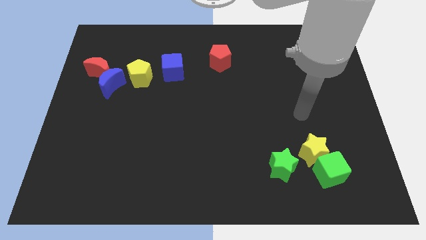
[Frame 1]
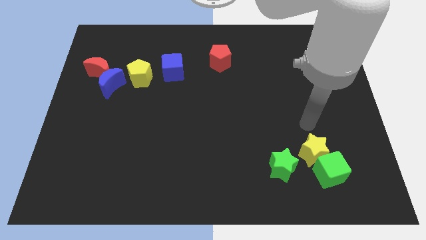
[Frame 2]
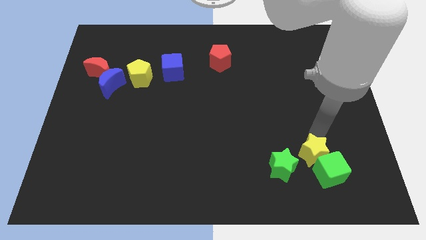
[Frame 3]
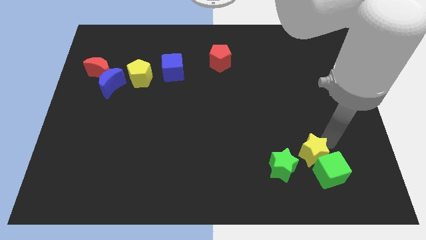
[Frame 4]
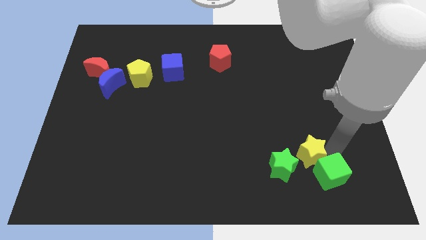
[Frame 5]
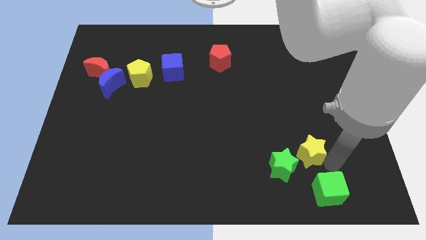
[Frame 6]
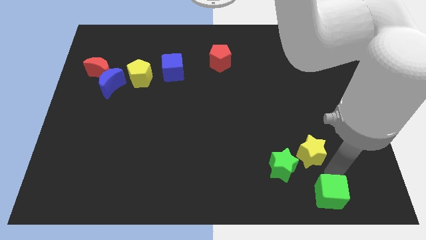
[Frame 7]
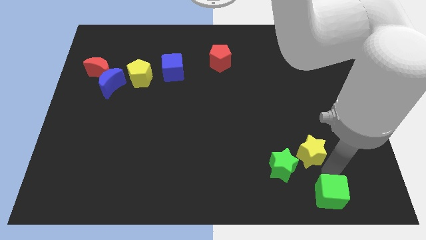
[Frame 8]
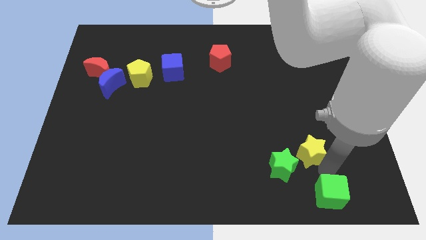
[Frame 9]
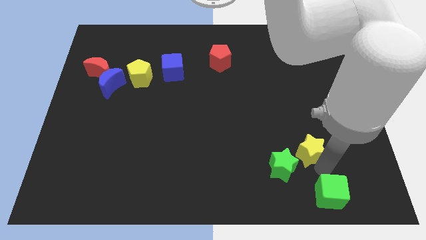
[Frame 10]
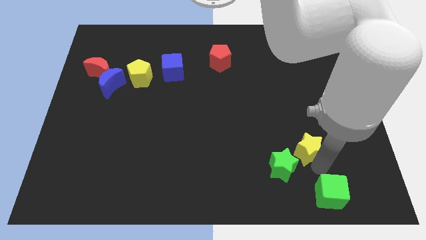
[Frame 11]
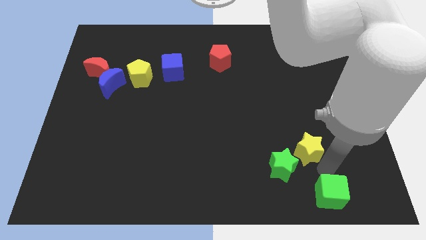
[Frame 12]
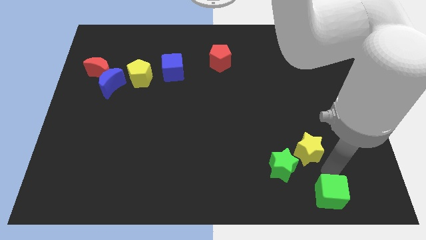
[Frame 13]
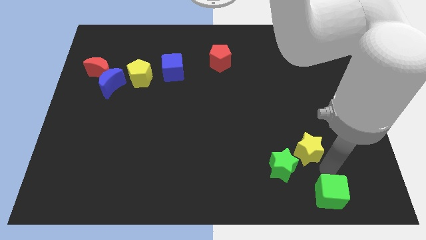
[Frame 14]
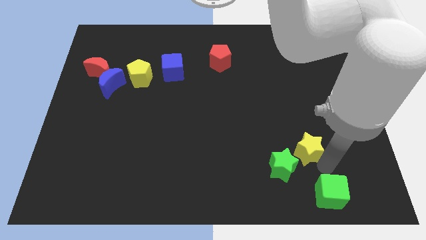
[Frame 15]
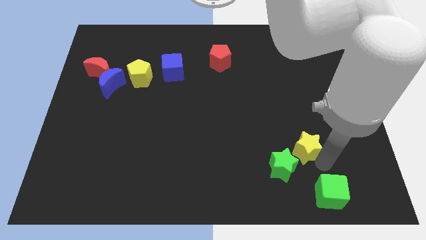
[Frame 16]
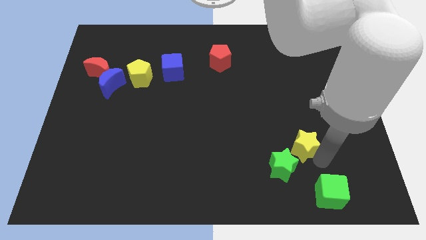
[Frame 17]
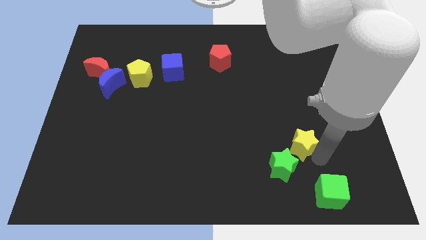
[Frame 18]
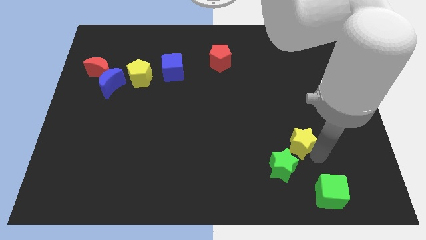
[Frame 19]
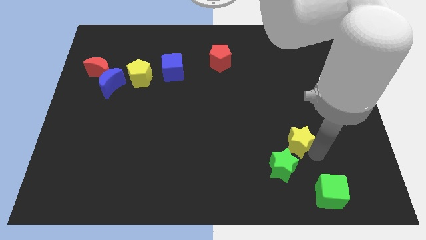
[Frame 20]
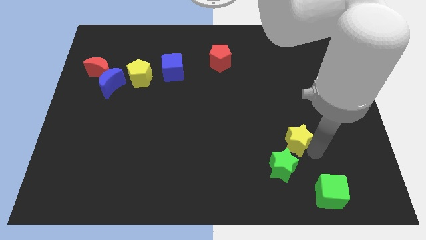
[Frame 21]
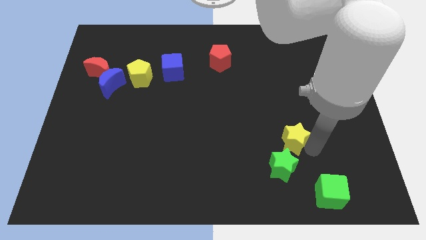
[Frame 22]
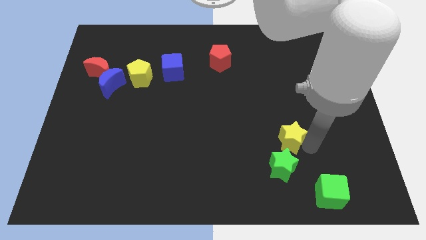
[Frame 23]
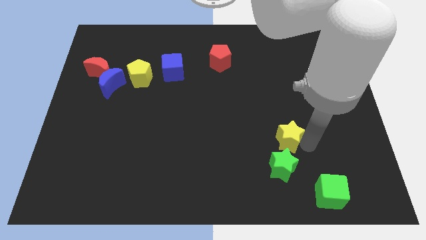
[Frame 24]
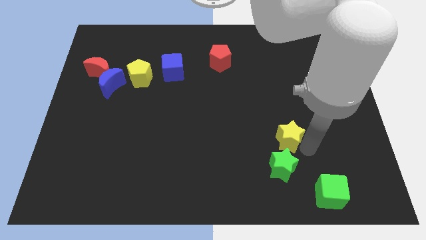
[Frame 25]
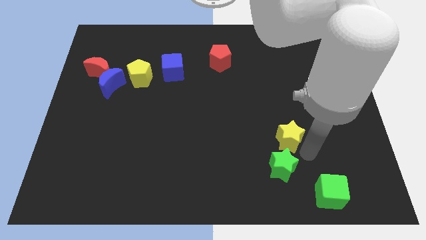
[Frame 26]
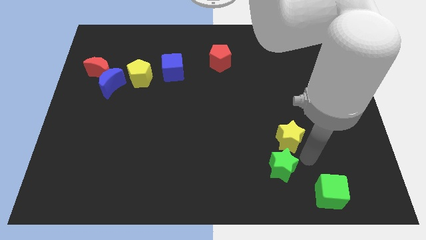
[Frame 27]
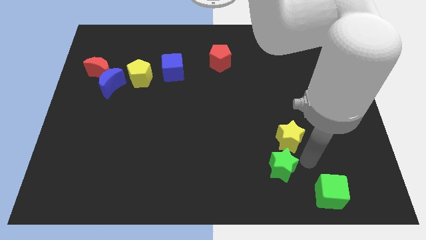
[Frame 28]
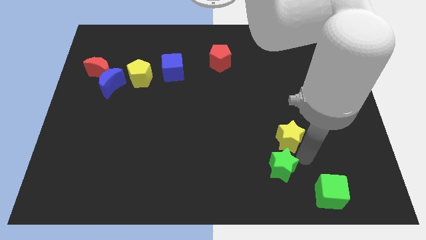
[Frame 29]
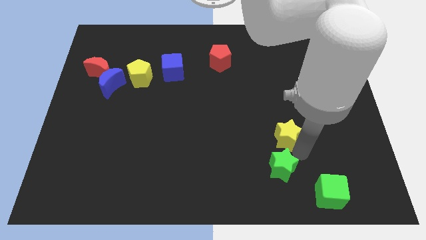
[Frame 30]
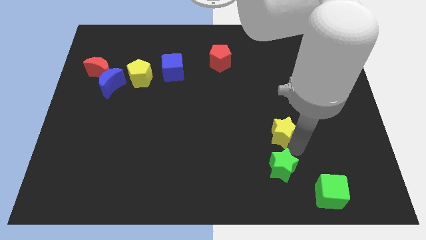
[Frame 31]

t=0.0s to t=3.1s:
push the yellow star upwards and to the left a little

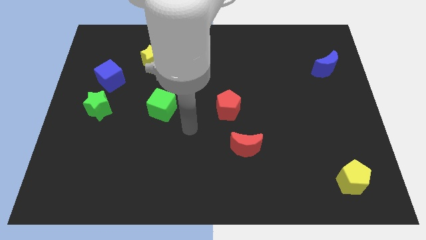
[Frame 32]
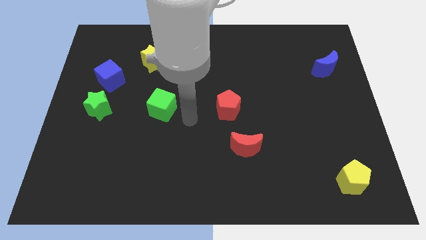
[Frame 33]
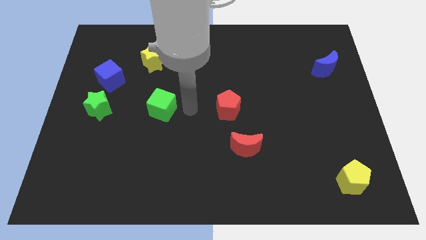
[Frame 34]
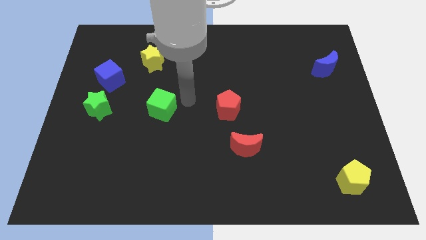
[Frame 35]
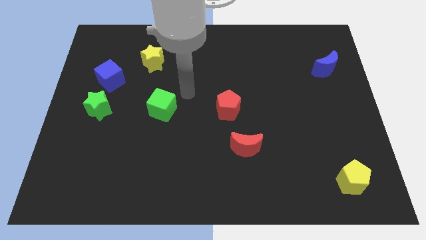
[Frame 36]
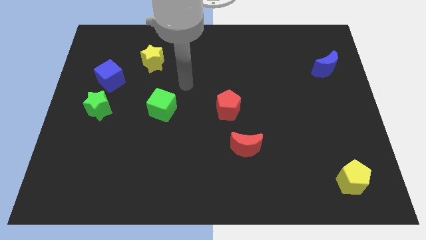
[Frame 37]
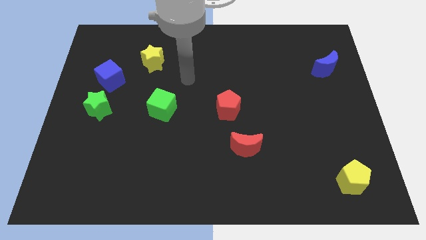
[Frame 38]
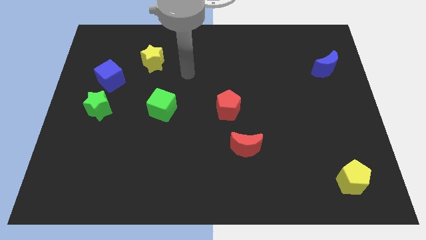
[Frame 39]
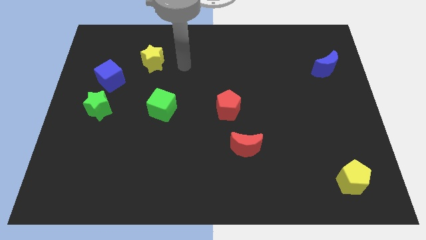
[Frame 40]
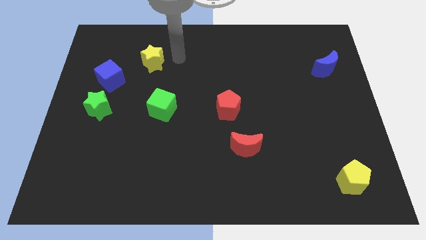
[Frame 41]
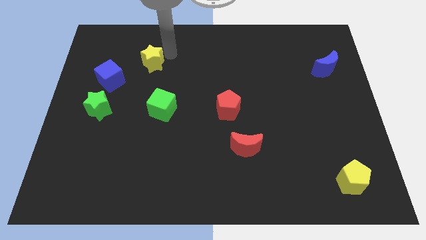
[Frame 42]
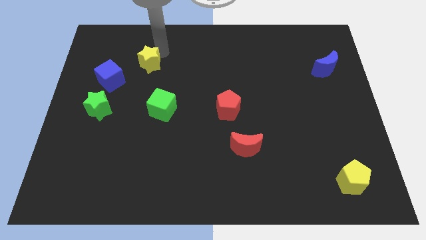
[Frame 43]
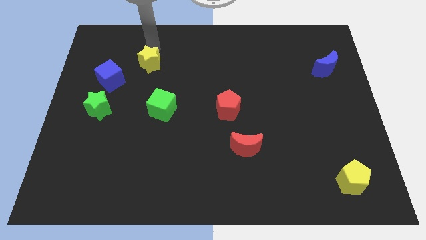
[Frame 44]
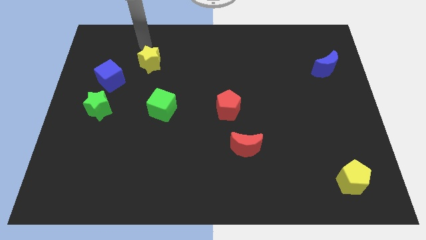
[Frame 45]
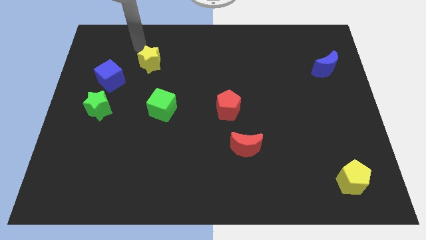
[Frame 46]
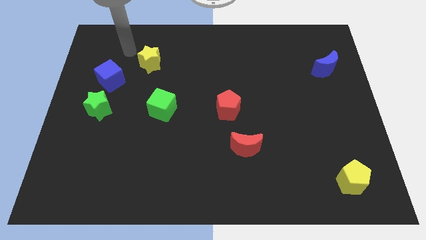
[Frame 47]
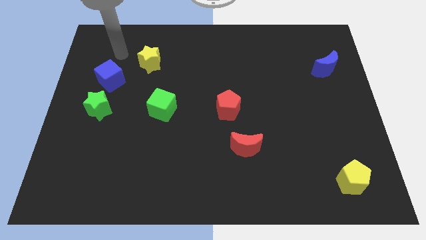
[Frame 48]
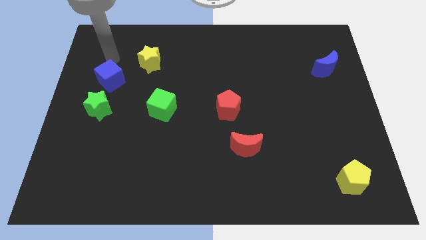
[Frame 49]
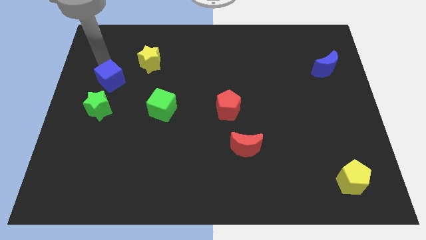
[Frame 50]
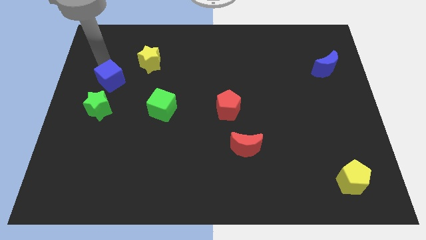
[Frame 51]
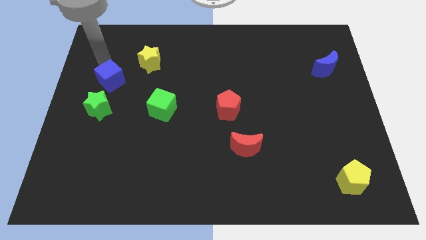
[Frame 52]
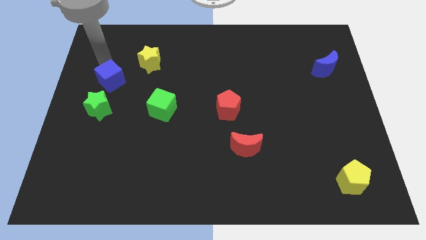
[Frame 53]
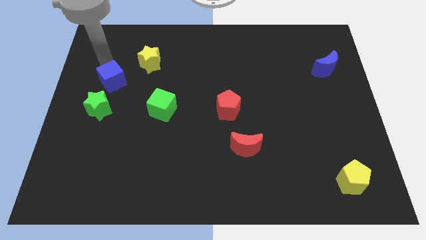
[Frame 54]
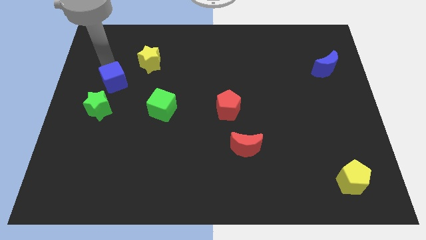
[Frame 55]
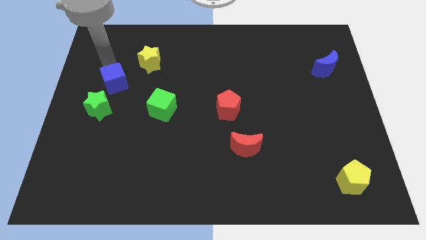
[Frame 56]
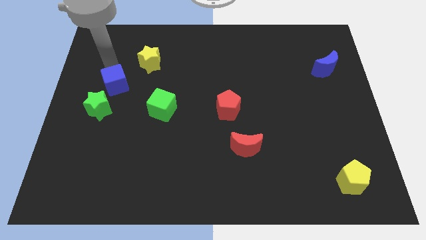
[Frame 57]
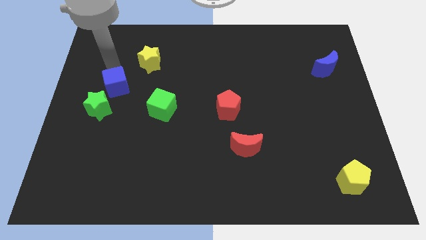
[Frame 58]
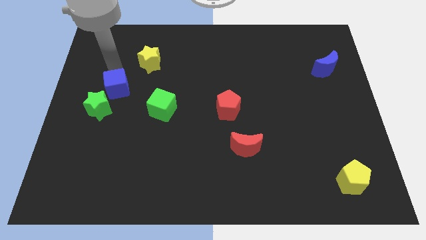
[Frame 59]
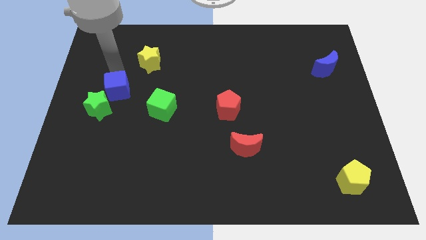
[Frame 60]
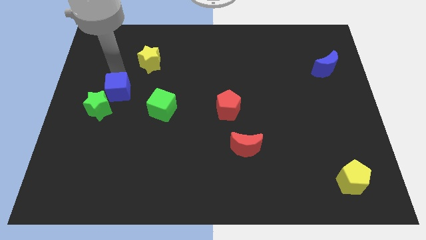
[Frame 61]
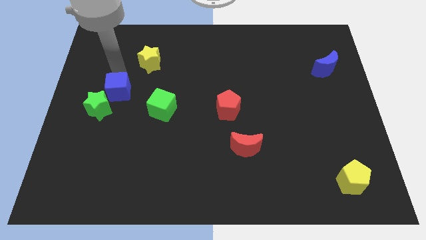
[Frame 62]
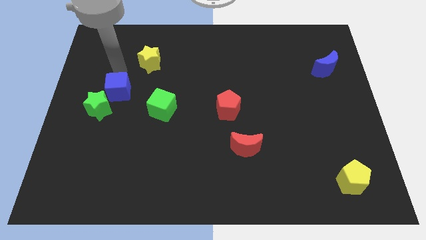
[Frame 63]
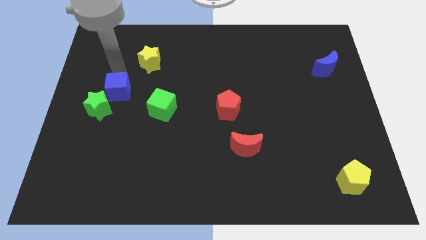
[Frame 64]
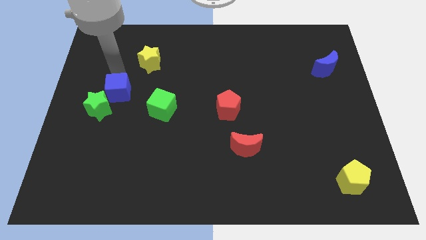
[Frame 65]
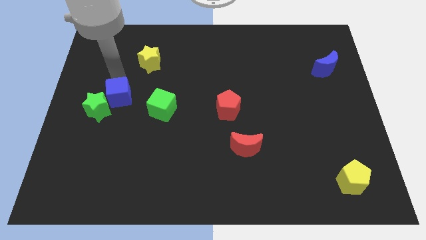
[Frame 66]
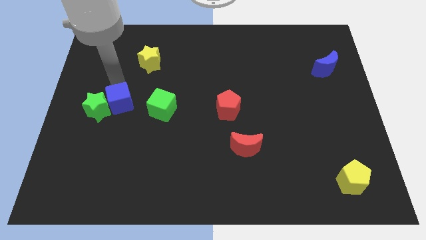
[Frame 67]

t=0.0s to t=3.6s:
slide the blue cube downwards and then to the right slightly

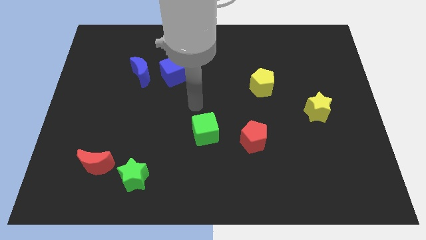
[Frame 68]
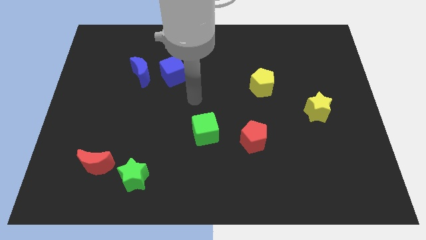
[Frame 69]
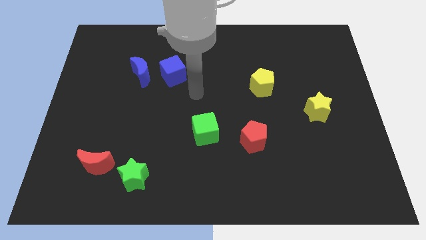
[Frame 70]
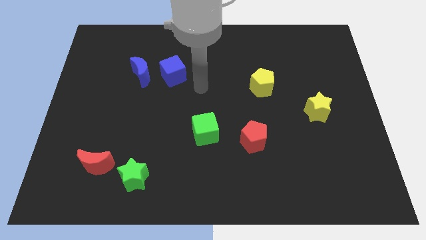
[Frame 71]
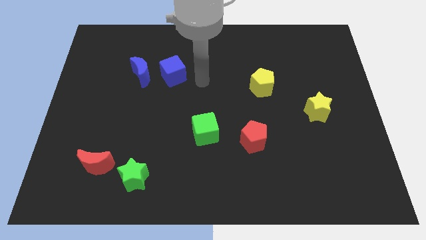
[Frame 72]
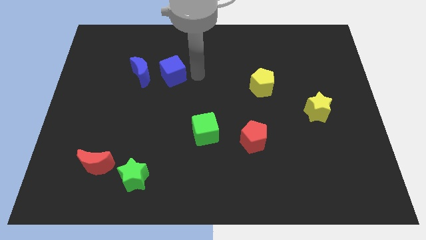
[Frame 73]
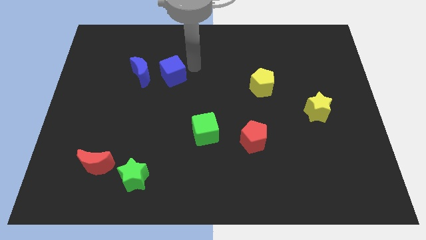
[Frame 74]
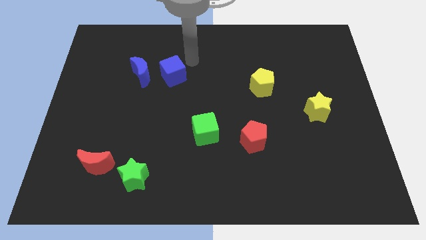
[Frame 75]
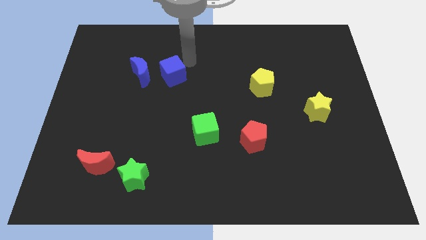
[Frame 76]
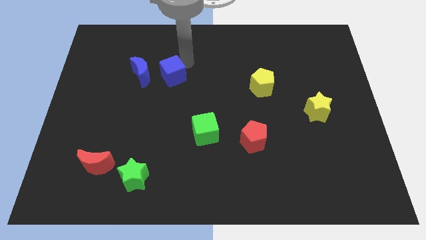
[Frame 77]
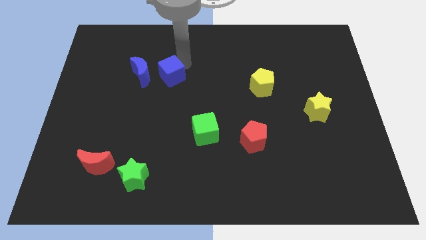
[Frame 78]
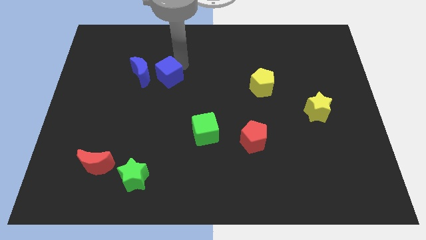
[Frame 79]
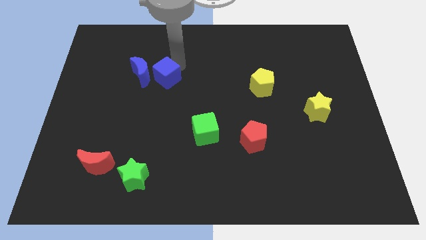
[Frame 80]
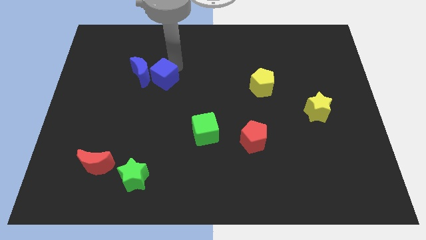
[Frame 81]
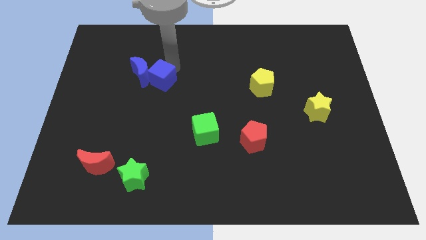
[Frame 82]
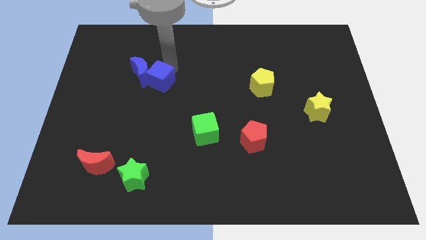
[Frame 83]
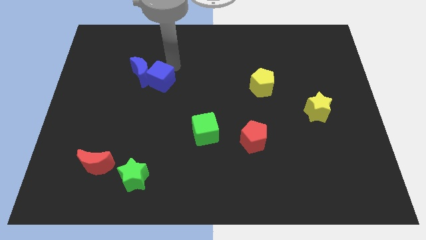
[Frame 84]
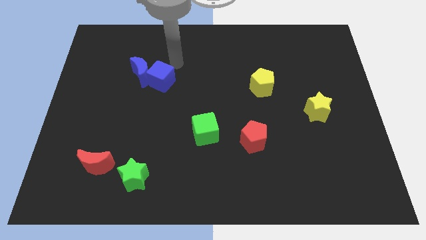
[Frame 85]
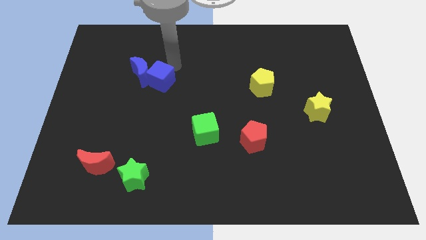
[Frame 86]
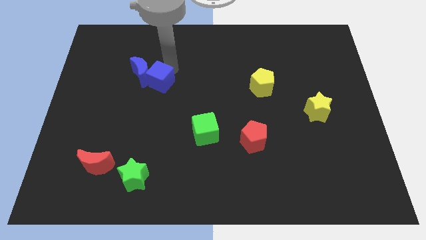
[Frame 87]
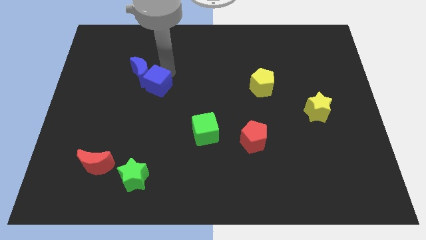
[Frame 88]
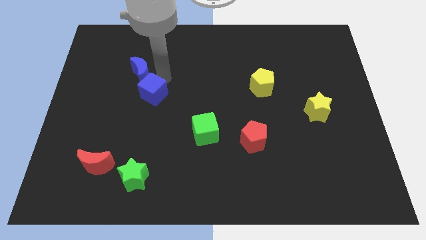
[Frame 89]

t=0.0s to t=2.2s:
slightly slide the blue cube diagonally downwards and left
